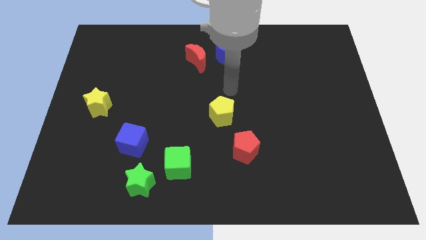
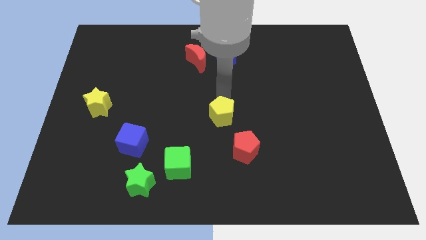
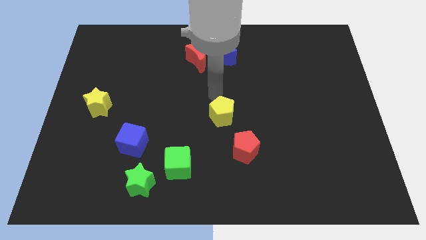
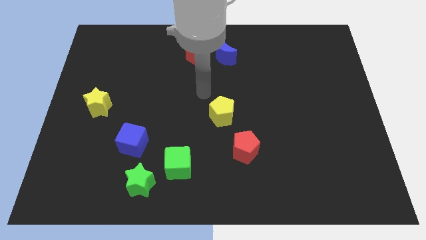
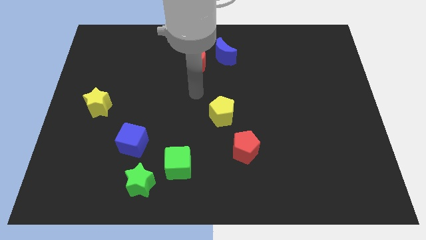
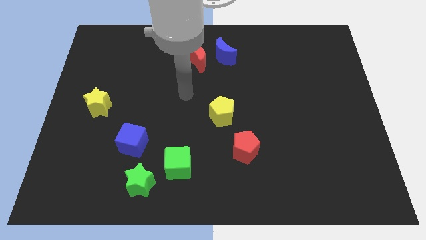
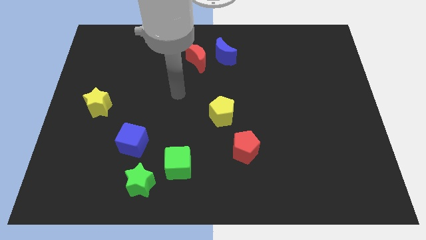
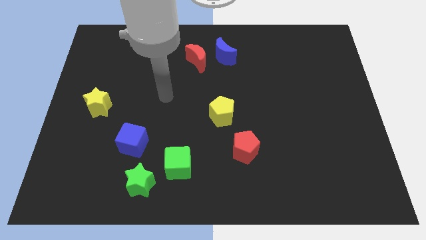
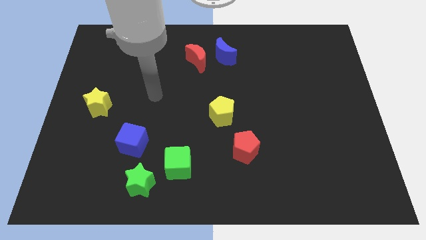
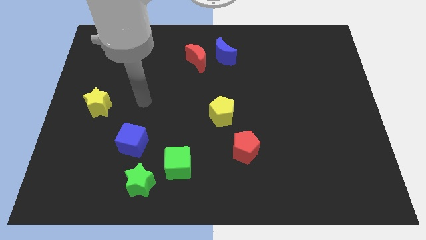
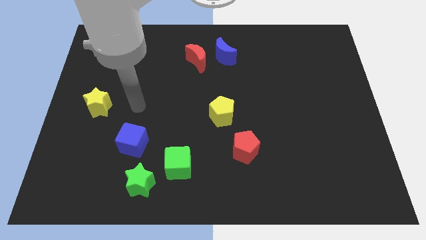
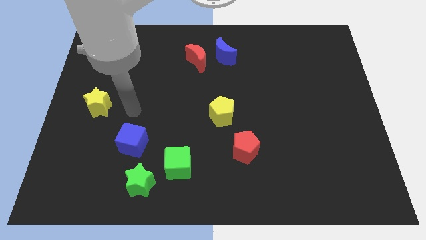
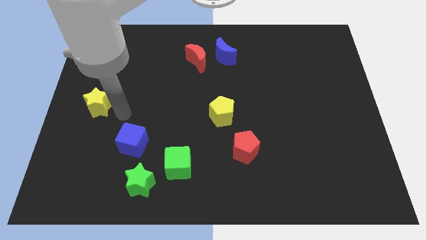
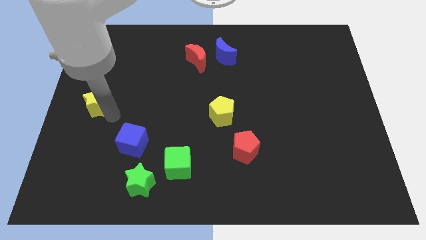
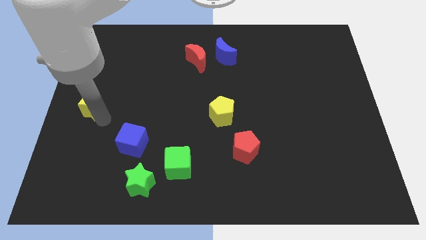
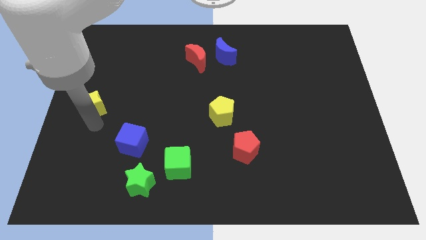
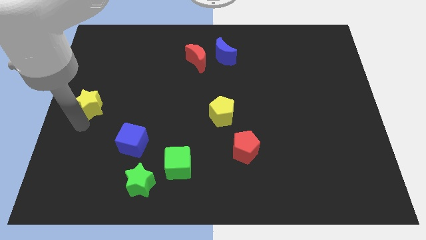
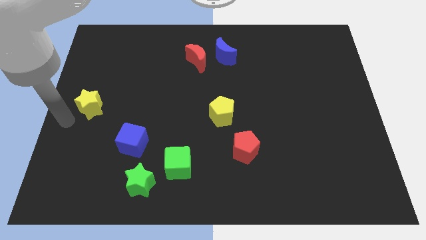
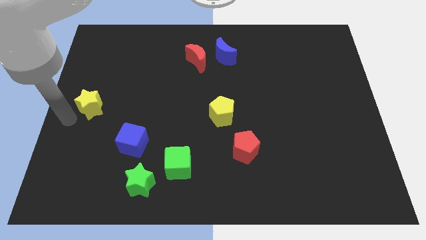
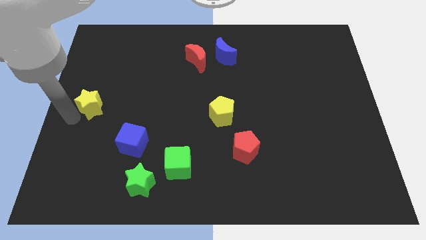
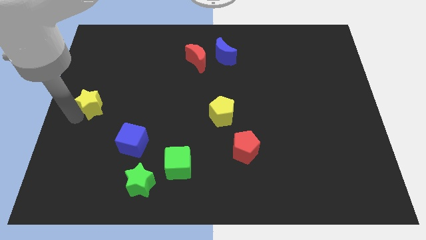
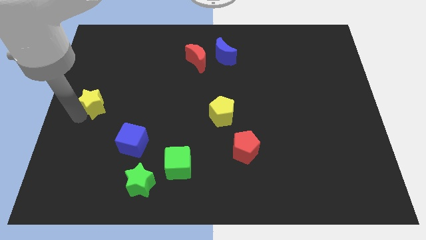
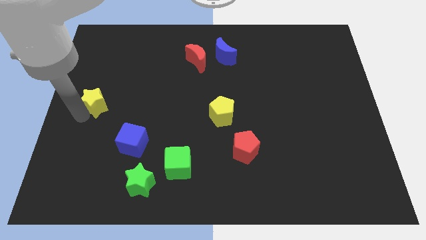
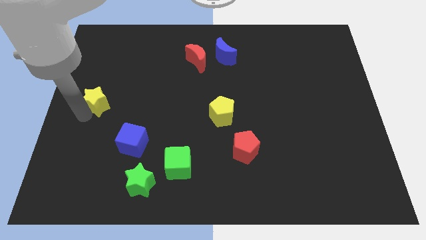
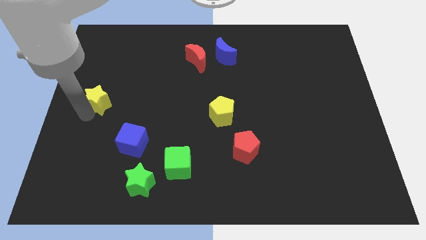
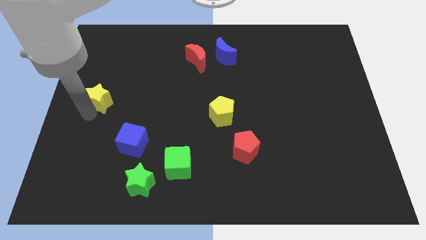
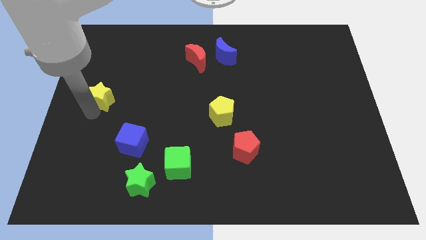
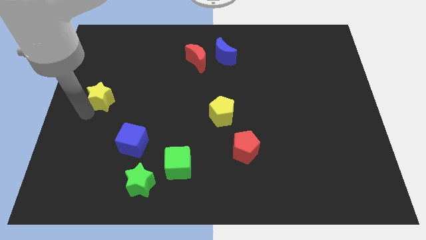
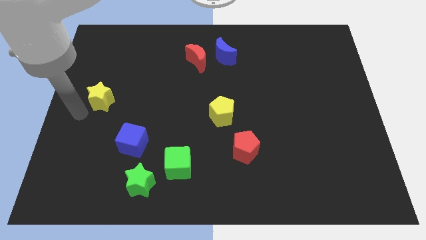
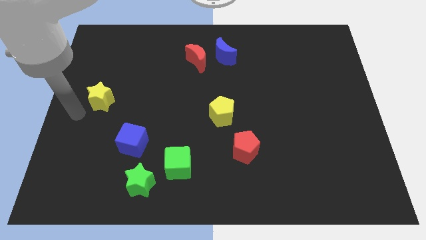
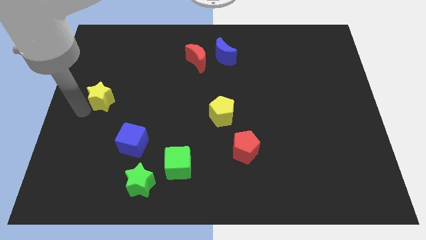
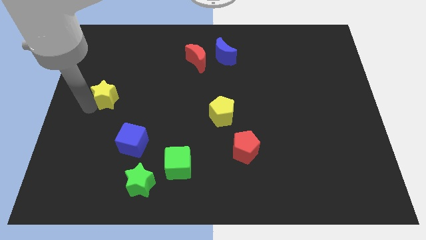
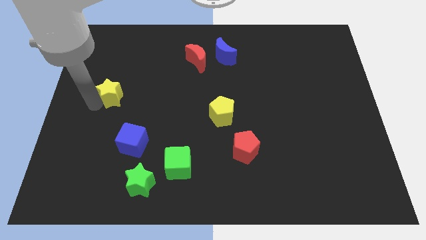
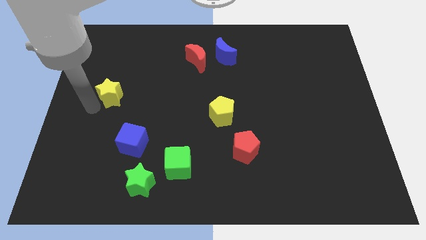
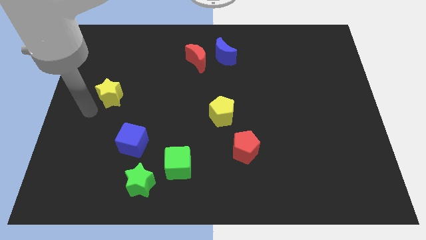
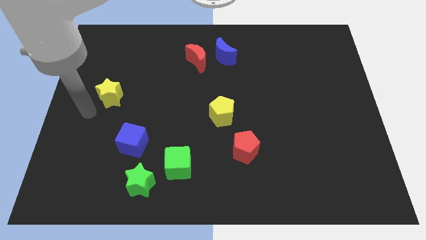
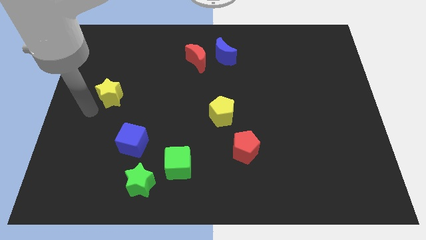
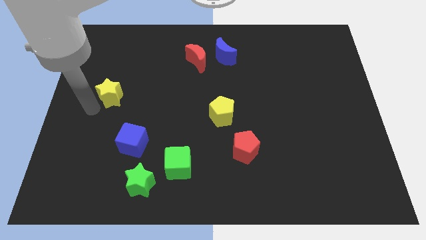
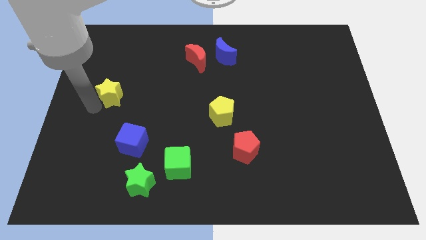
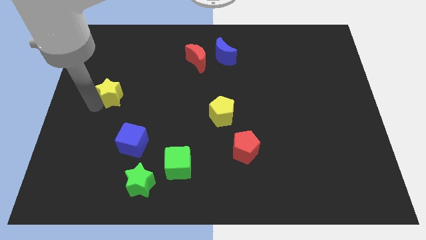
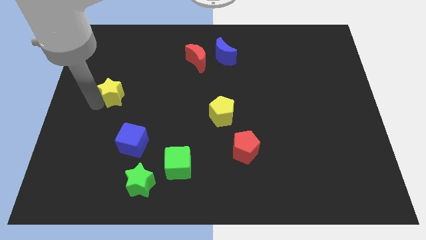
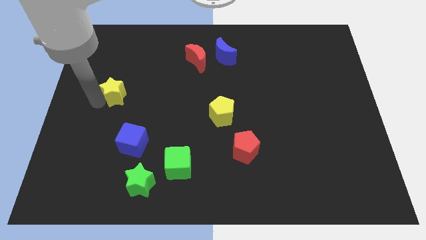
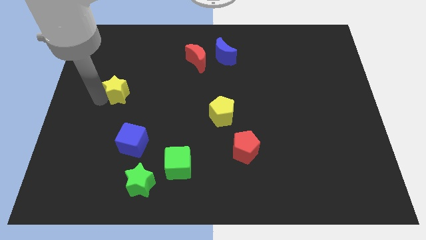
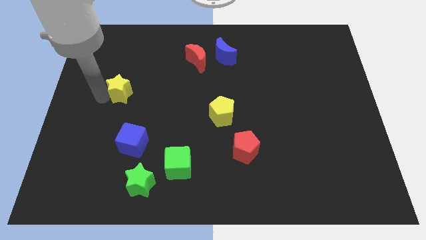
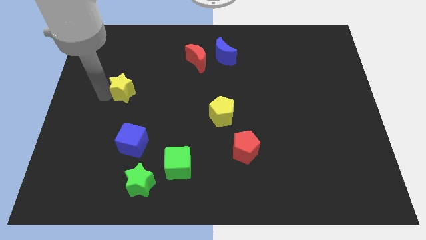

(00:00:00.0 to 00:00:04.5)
push the yellow star up and to the right a little

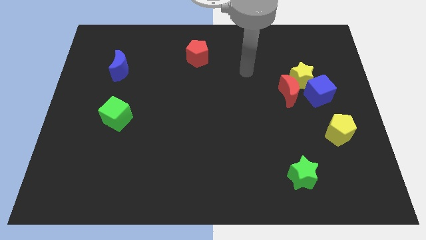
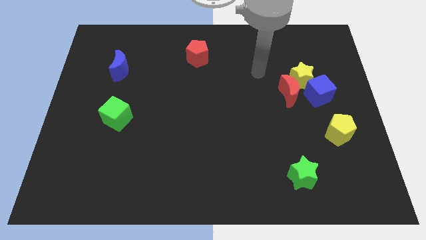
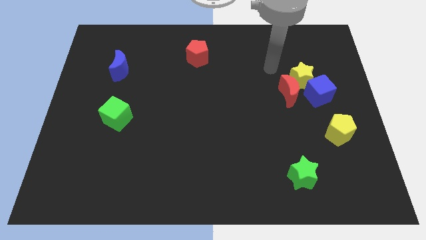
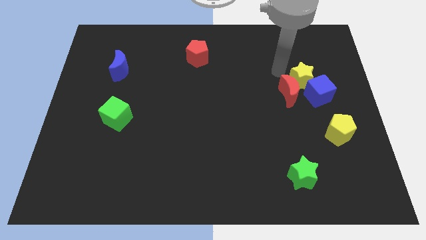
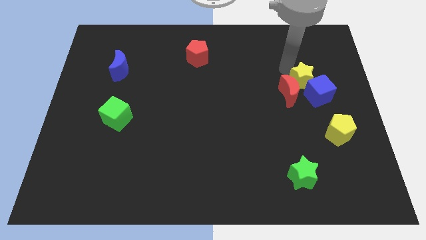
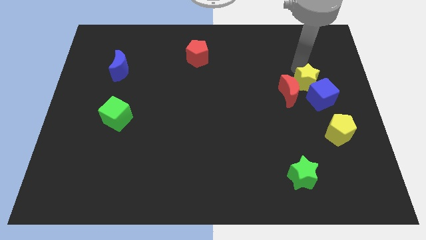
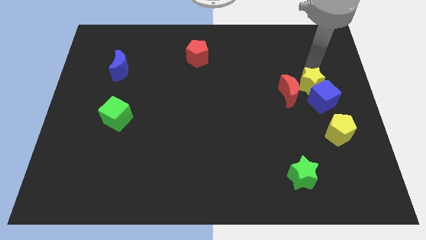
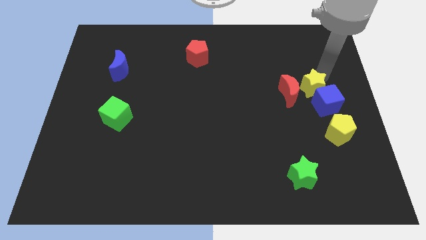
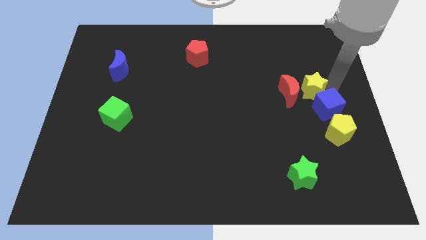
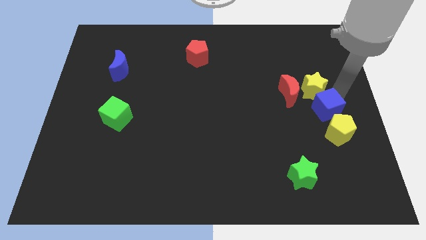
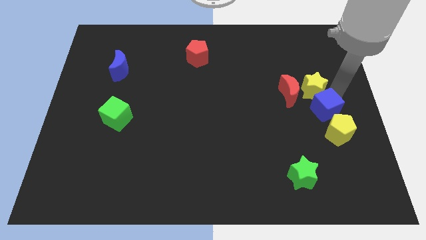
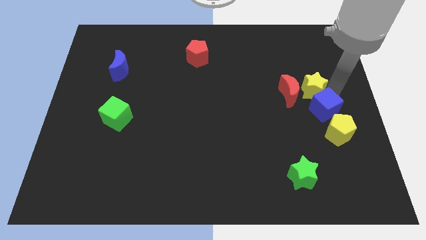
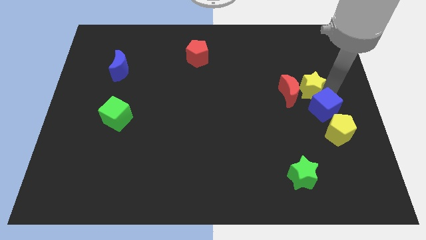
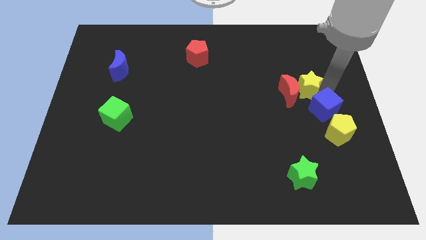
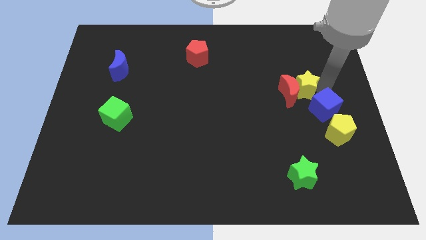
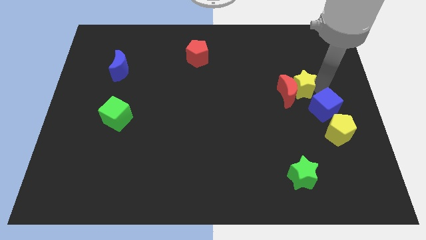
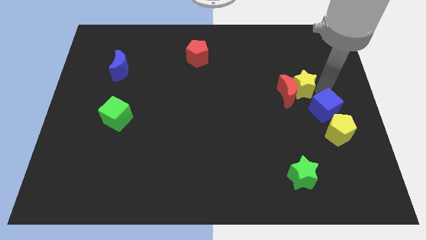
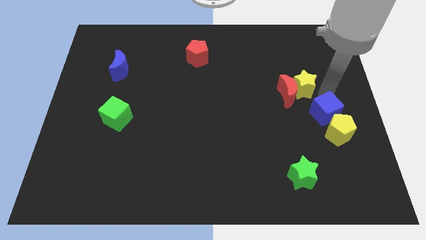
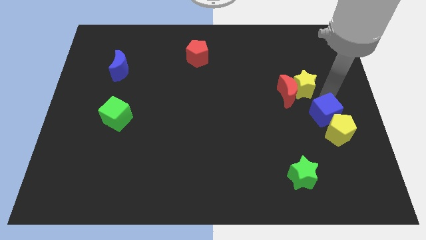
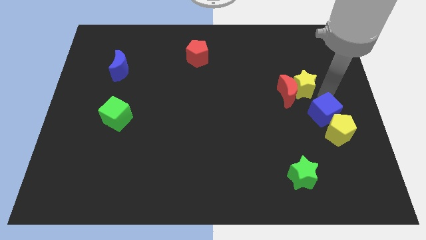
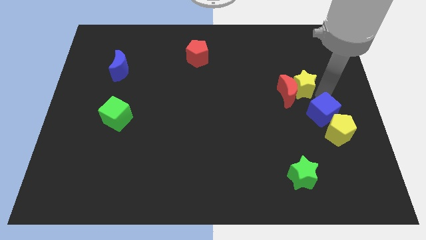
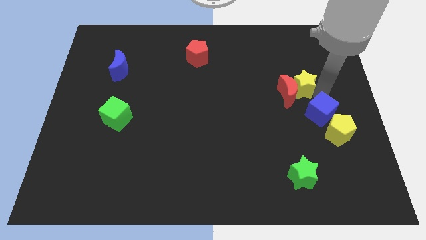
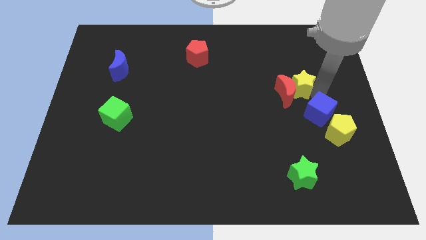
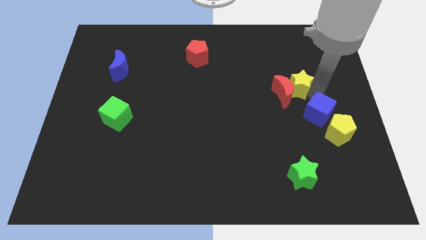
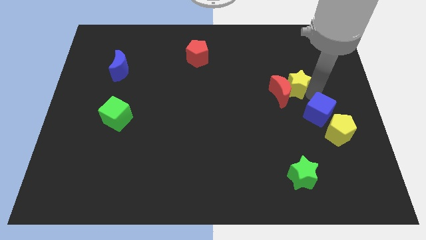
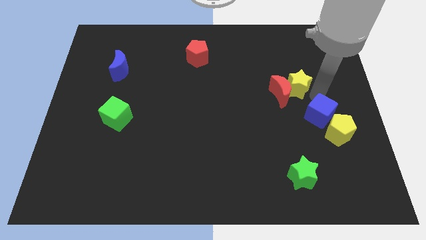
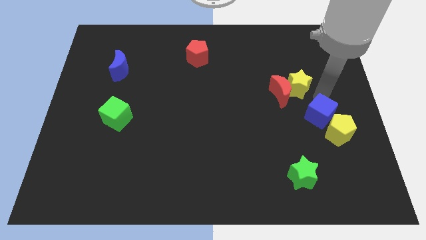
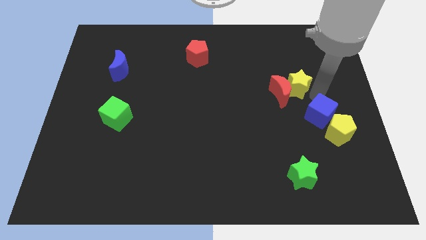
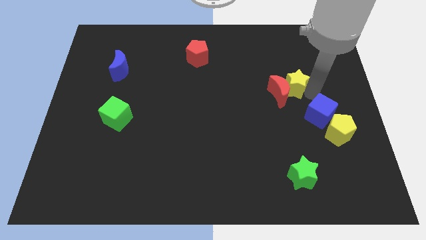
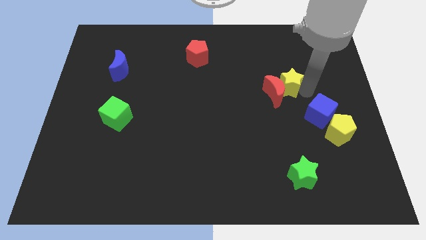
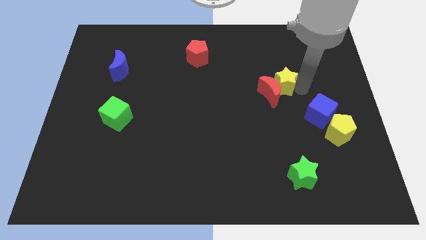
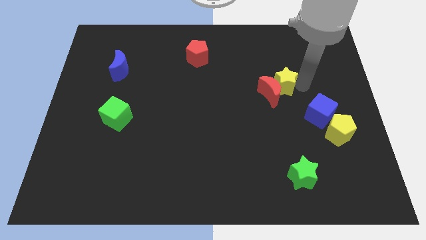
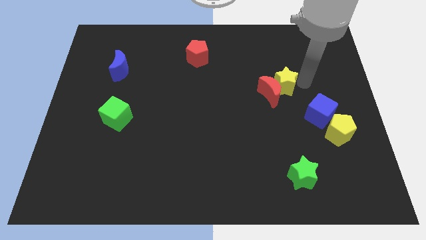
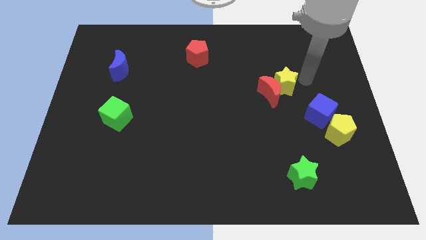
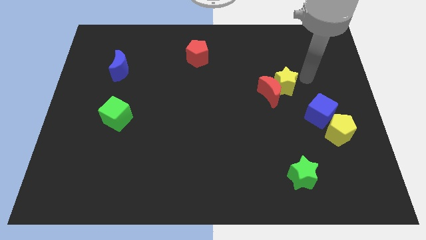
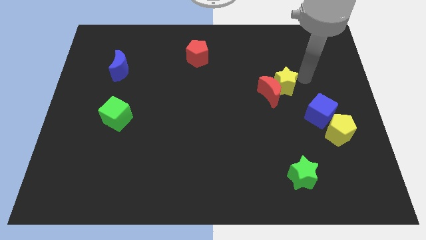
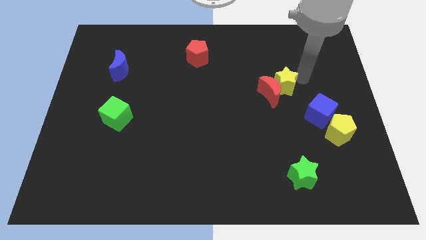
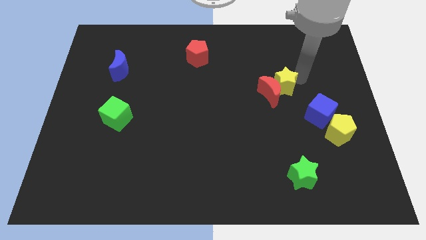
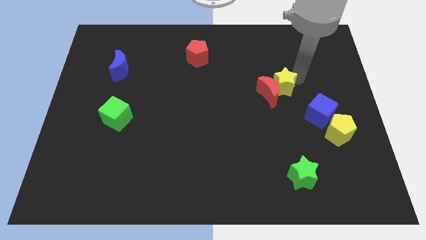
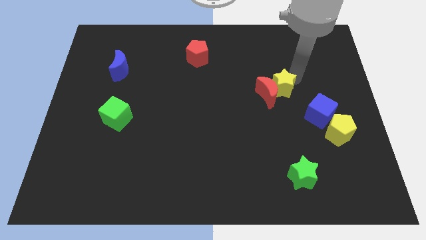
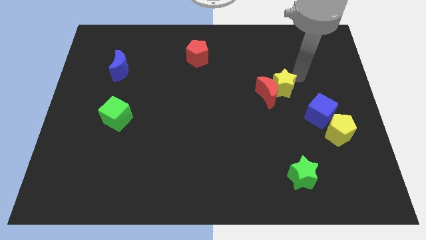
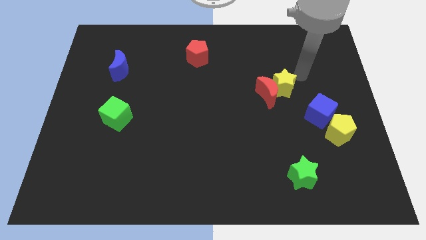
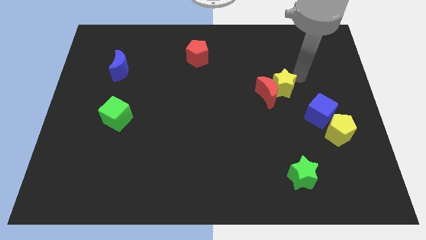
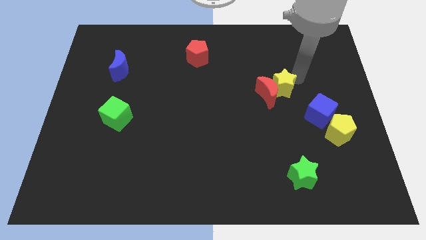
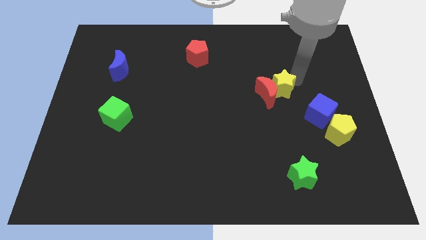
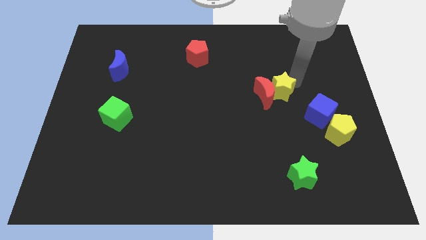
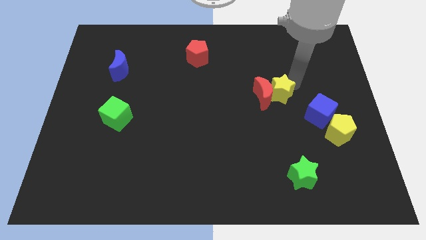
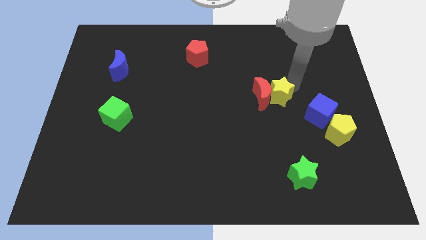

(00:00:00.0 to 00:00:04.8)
push the yellow star a little bit down and left
